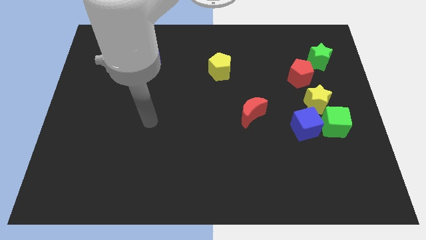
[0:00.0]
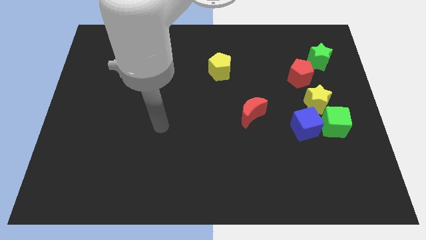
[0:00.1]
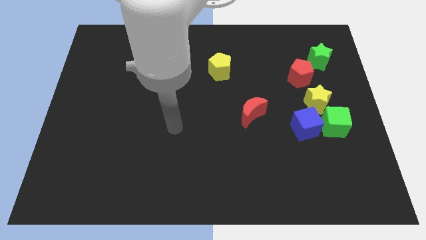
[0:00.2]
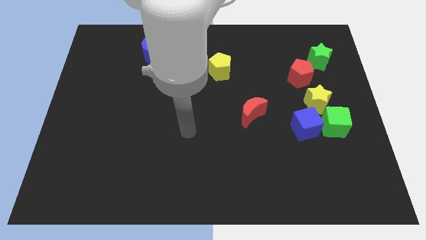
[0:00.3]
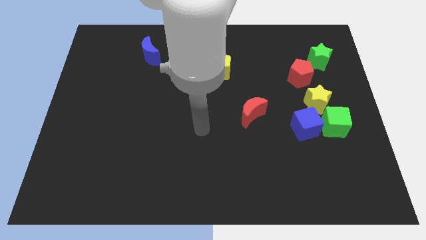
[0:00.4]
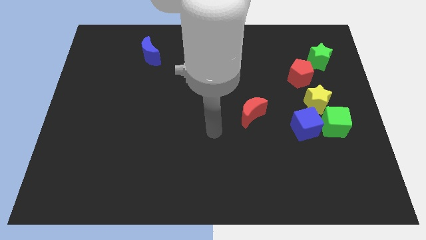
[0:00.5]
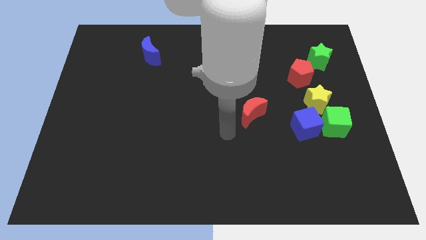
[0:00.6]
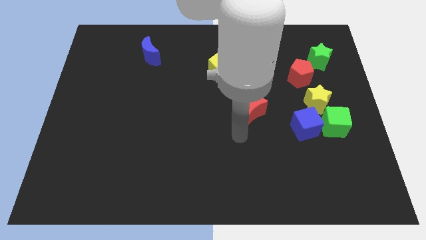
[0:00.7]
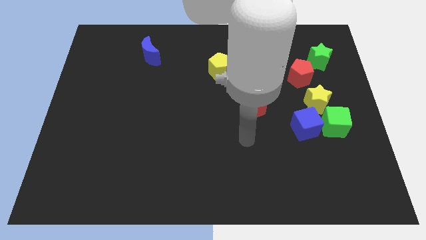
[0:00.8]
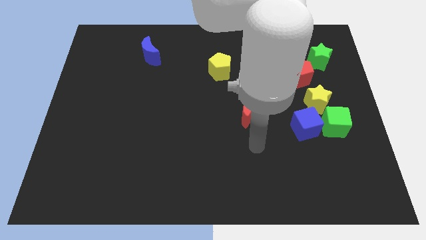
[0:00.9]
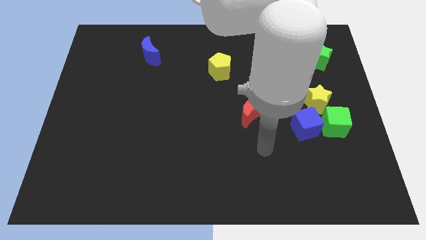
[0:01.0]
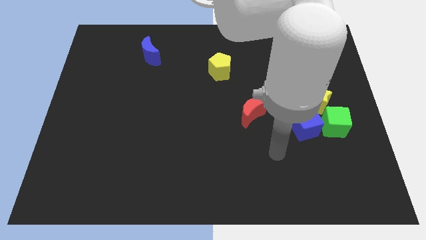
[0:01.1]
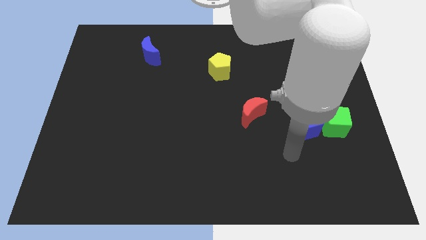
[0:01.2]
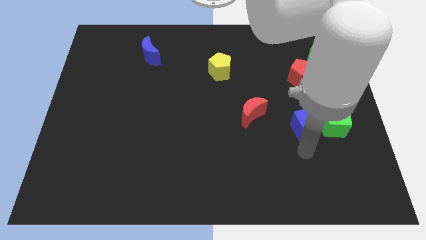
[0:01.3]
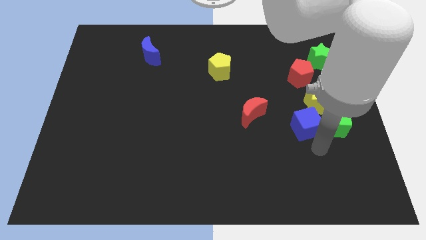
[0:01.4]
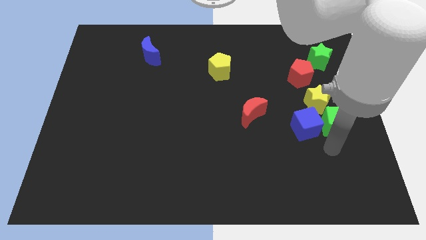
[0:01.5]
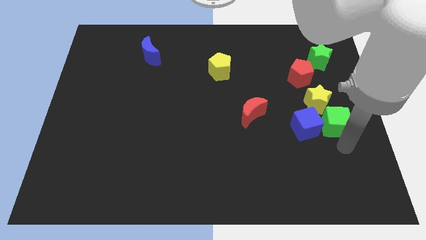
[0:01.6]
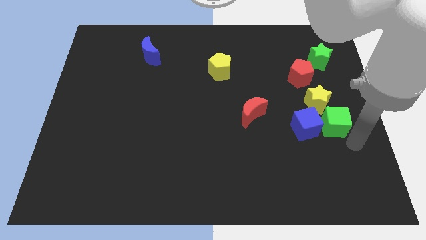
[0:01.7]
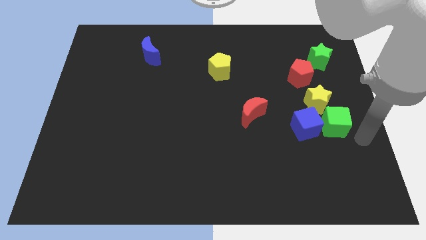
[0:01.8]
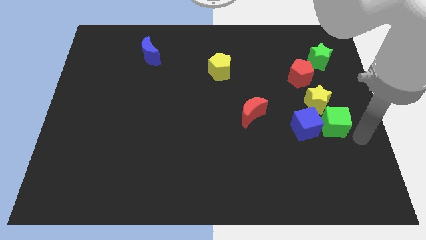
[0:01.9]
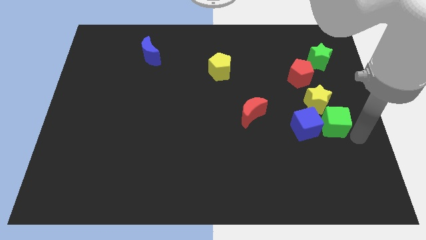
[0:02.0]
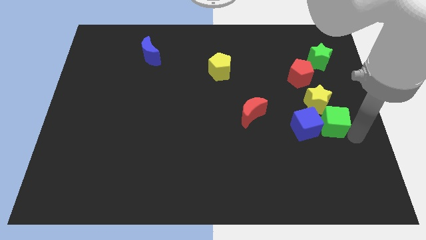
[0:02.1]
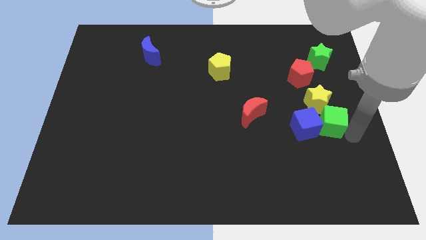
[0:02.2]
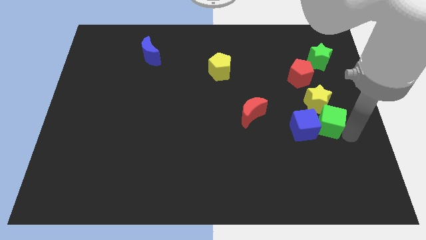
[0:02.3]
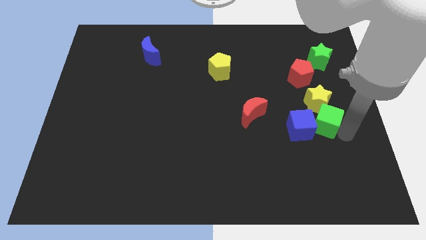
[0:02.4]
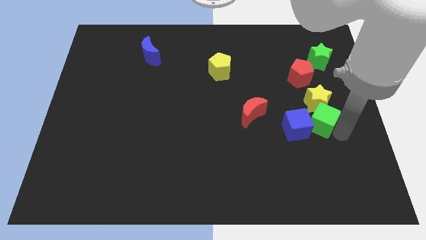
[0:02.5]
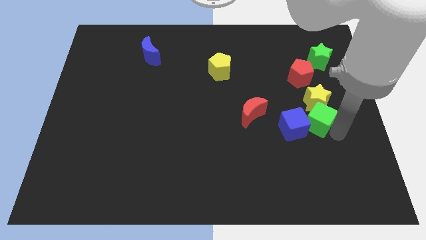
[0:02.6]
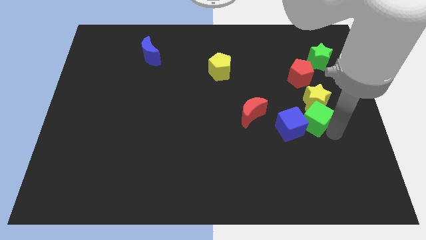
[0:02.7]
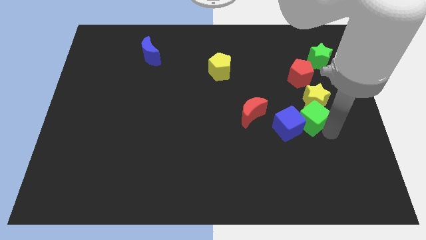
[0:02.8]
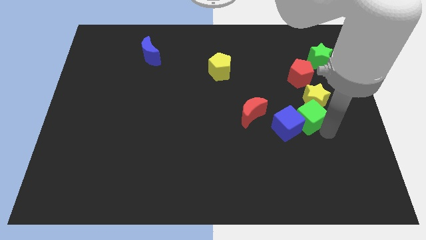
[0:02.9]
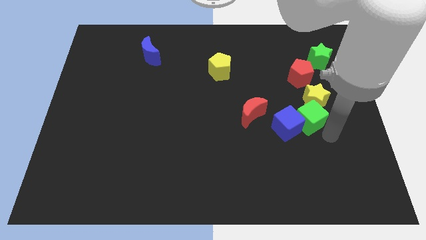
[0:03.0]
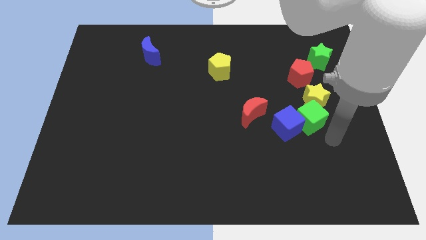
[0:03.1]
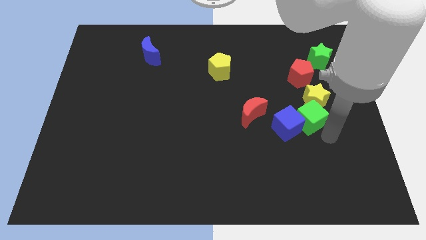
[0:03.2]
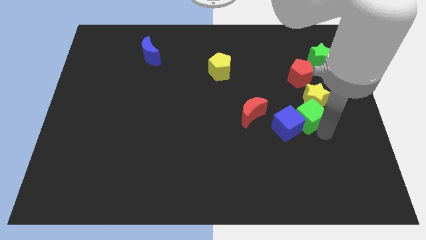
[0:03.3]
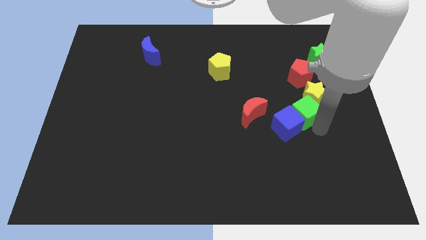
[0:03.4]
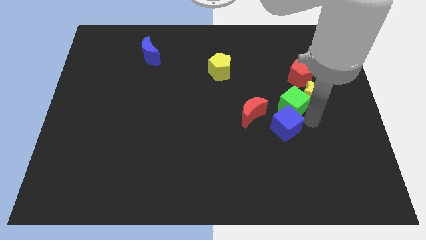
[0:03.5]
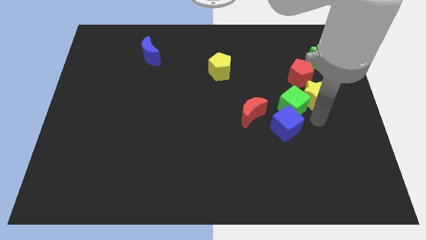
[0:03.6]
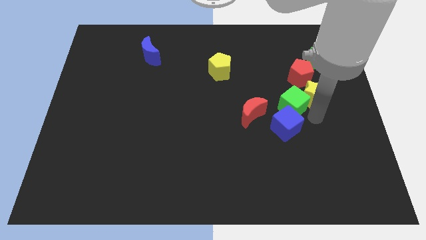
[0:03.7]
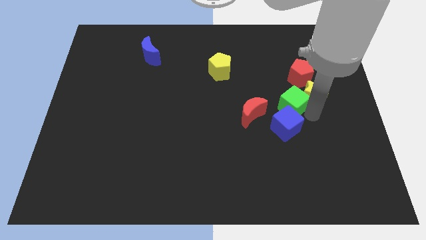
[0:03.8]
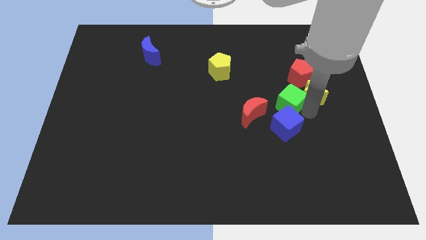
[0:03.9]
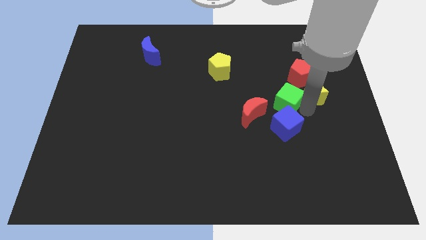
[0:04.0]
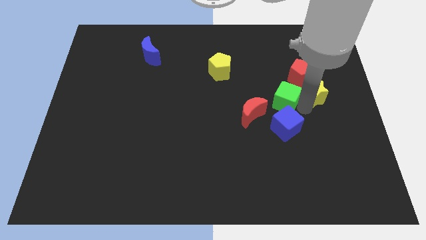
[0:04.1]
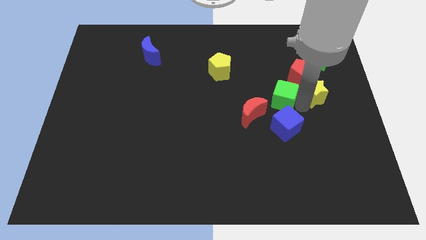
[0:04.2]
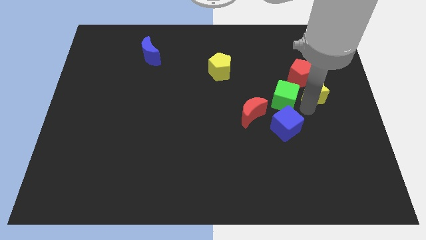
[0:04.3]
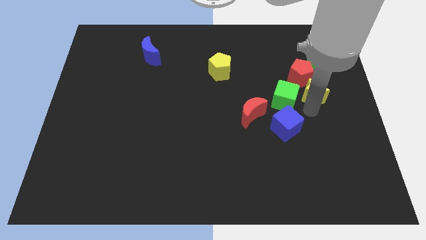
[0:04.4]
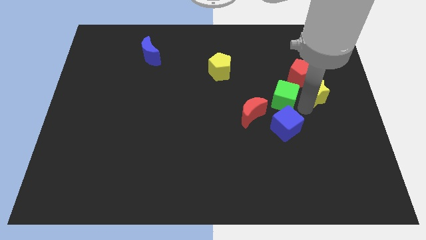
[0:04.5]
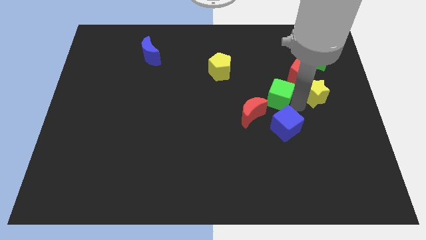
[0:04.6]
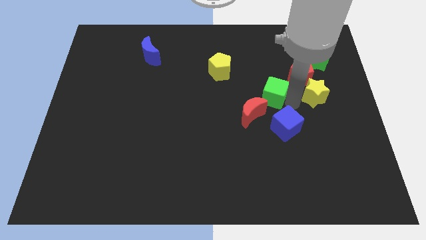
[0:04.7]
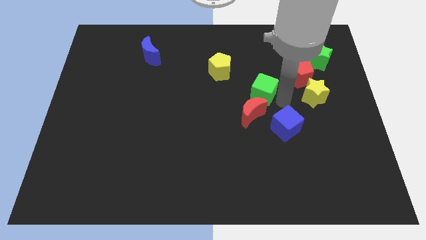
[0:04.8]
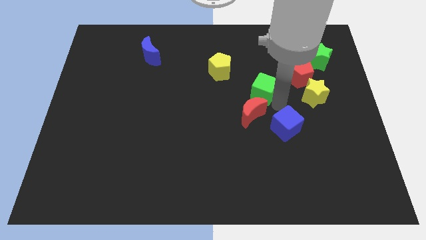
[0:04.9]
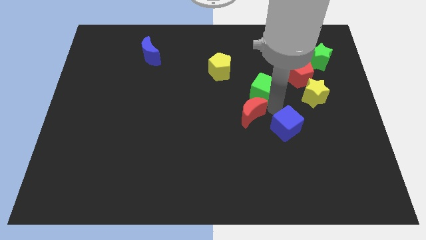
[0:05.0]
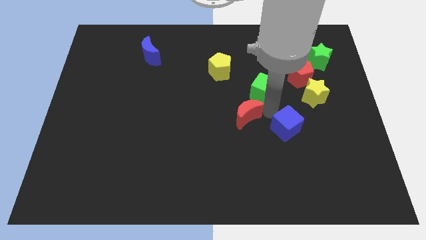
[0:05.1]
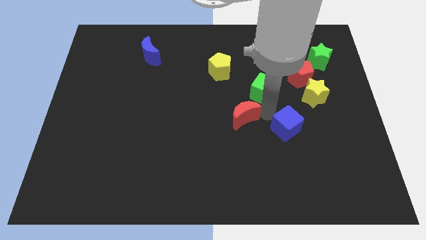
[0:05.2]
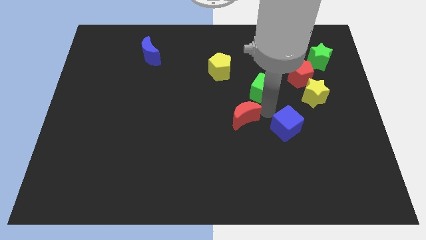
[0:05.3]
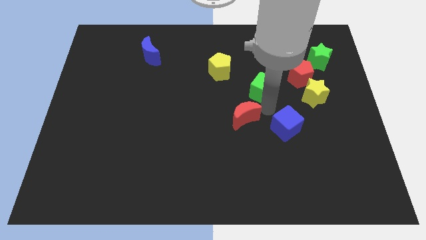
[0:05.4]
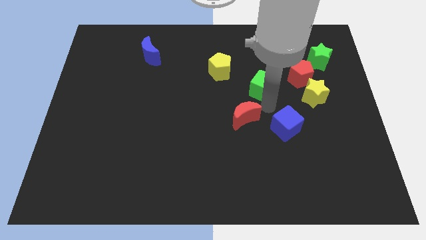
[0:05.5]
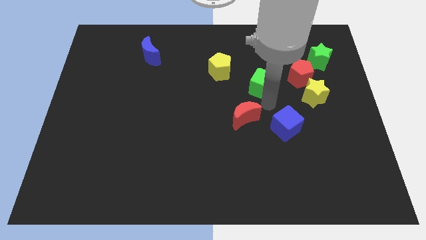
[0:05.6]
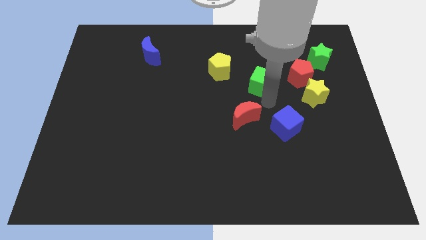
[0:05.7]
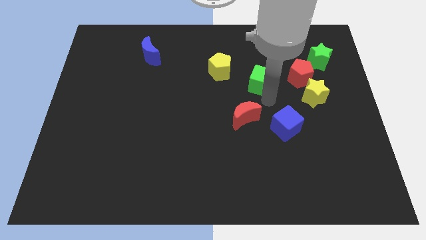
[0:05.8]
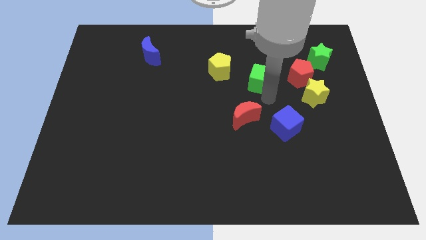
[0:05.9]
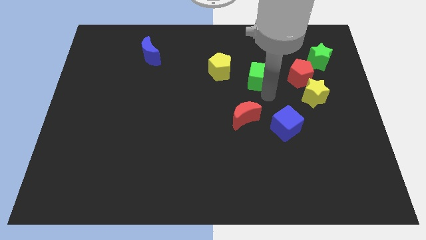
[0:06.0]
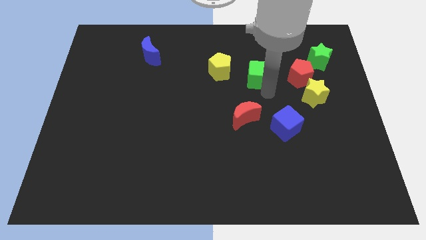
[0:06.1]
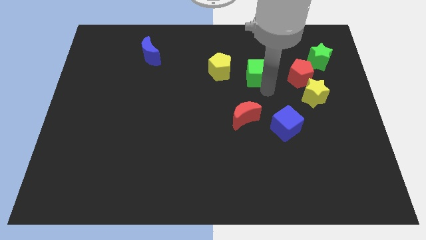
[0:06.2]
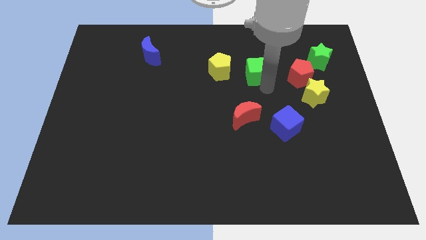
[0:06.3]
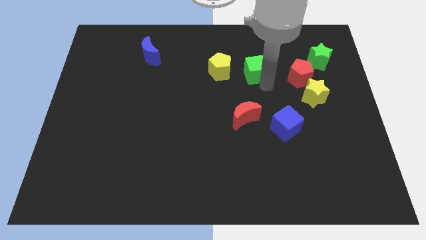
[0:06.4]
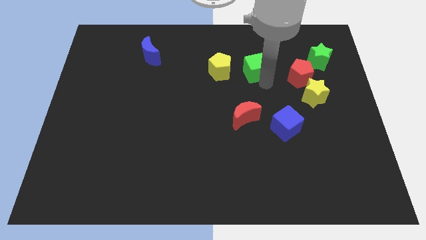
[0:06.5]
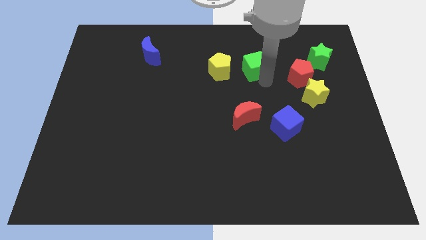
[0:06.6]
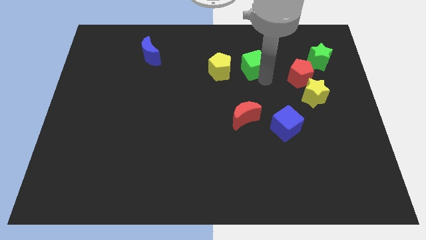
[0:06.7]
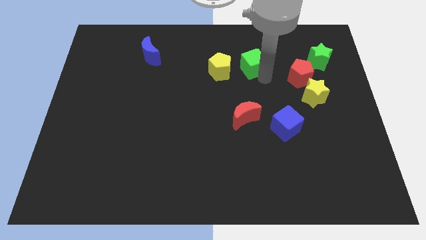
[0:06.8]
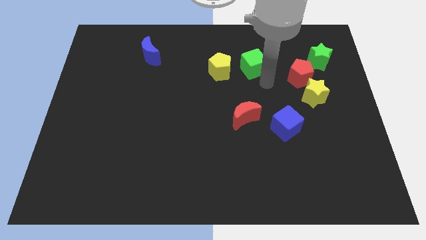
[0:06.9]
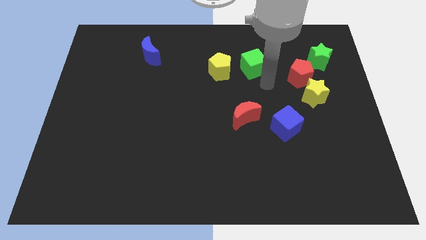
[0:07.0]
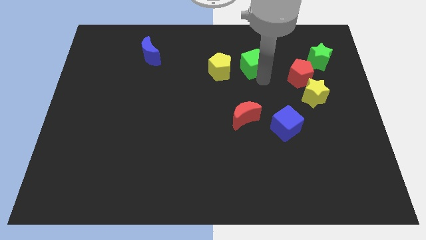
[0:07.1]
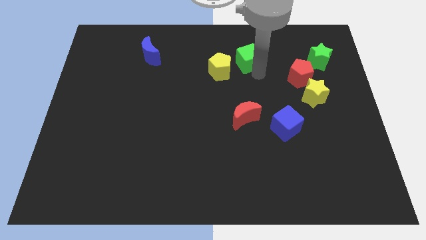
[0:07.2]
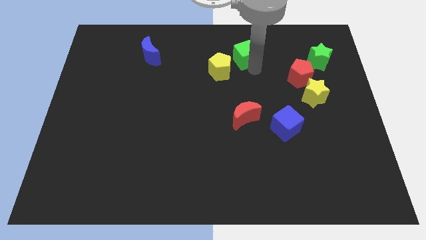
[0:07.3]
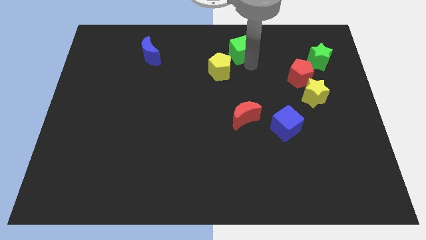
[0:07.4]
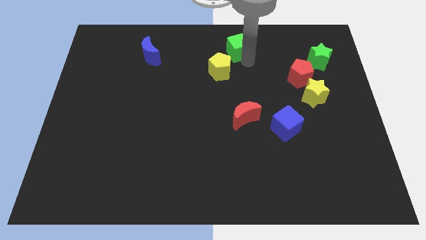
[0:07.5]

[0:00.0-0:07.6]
slide the green cube to the top side
